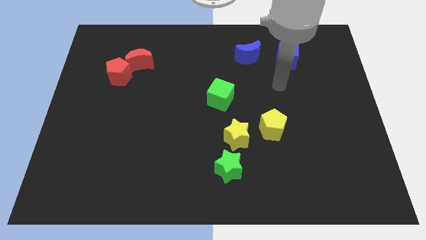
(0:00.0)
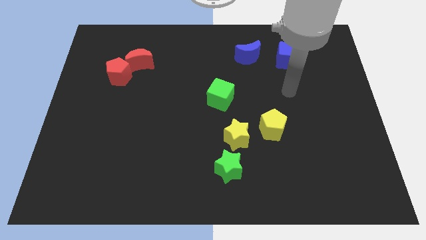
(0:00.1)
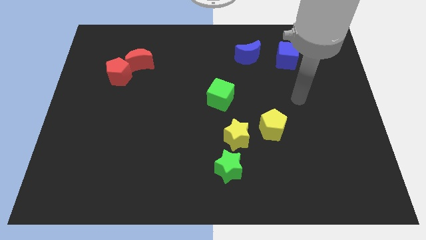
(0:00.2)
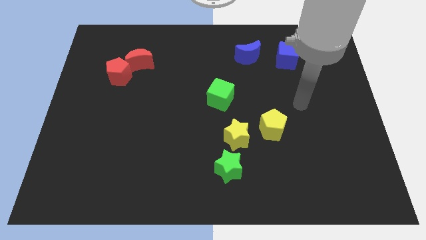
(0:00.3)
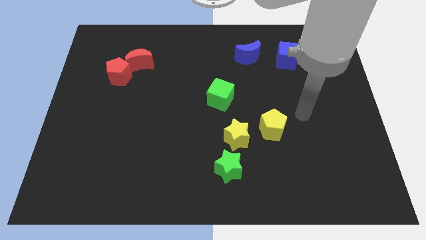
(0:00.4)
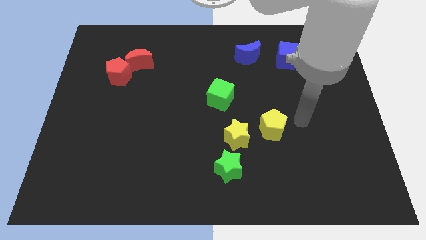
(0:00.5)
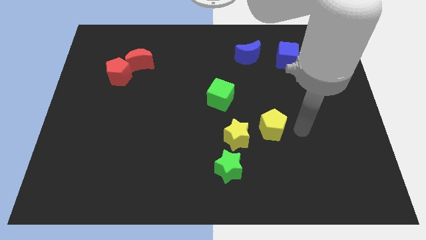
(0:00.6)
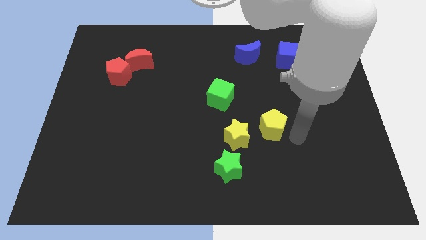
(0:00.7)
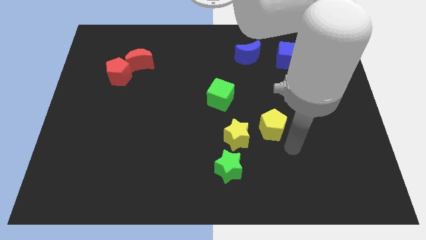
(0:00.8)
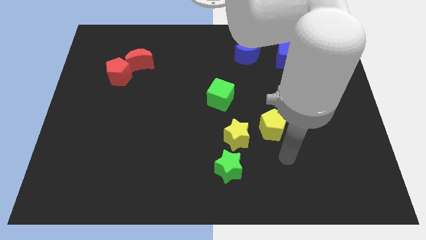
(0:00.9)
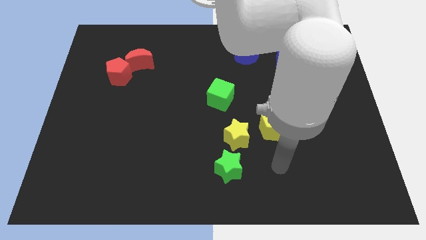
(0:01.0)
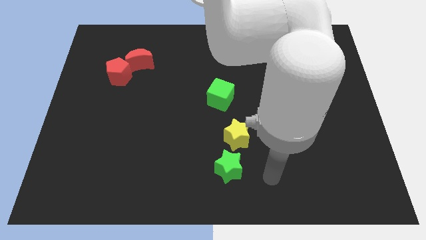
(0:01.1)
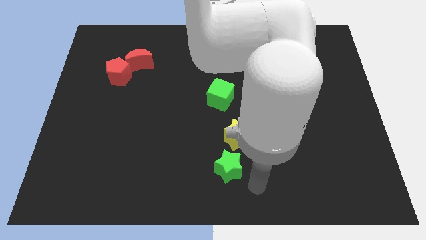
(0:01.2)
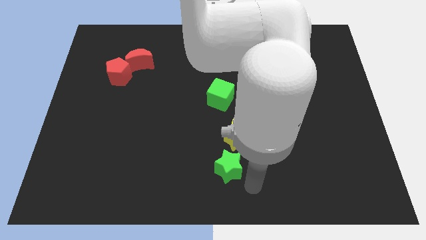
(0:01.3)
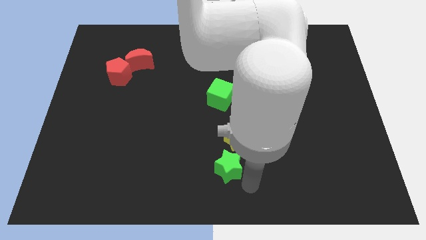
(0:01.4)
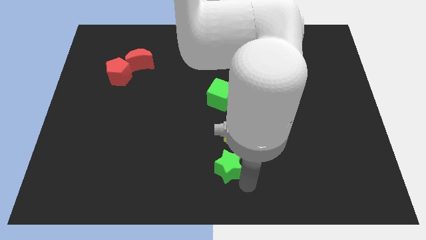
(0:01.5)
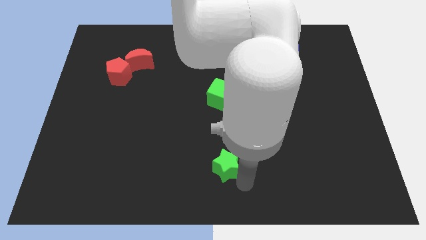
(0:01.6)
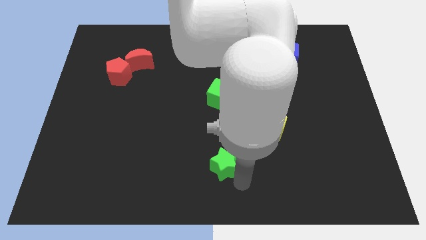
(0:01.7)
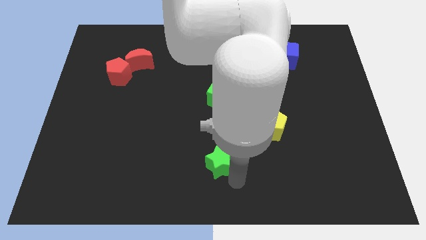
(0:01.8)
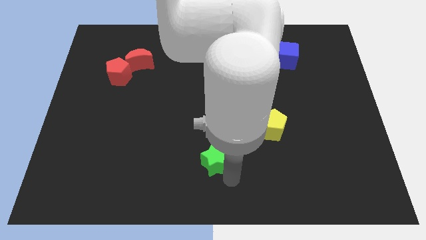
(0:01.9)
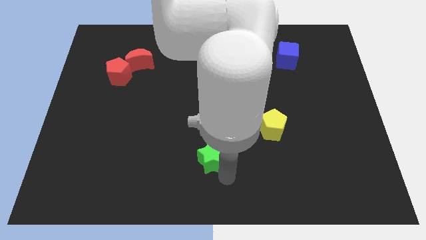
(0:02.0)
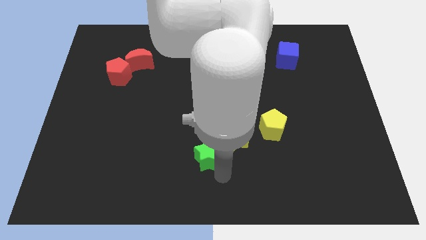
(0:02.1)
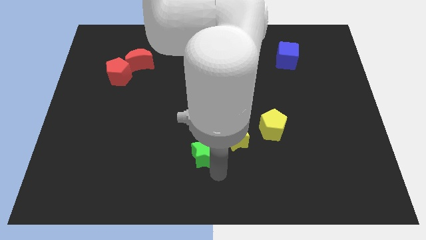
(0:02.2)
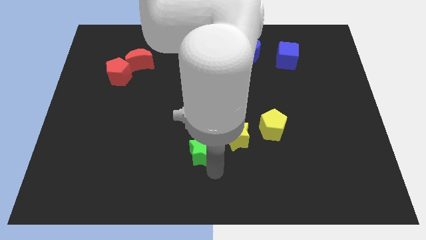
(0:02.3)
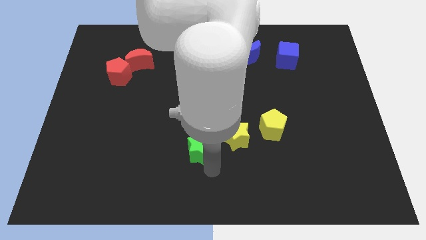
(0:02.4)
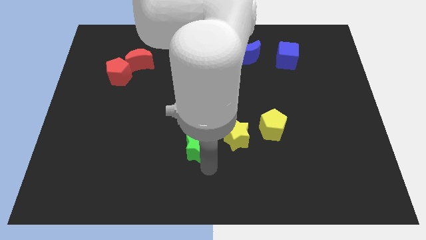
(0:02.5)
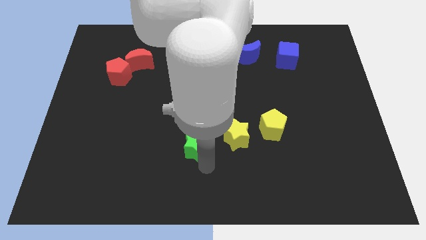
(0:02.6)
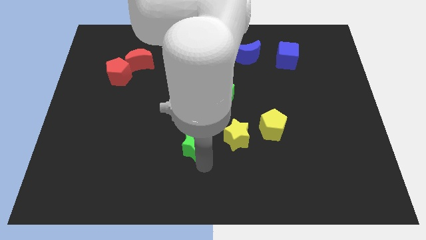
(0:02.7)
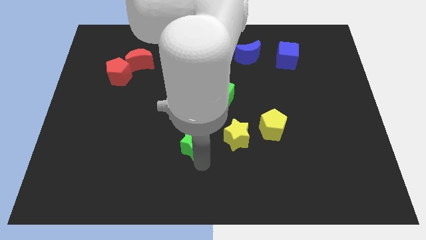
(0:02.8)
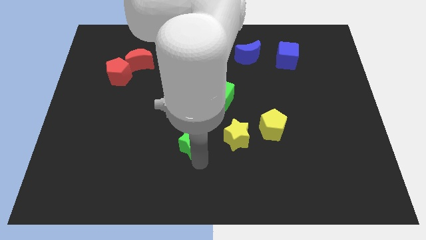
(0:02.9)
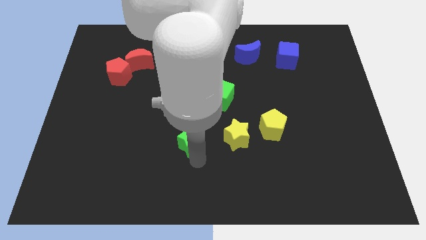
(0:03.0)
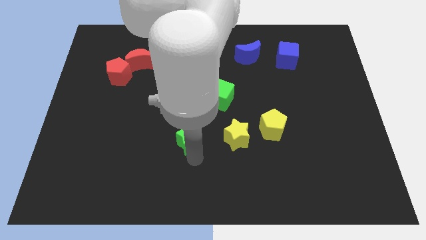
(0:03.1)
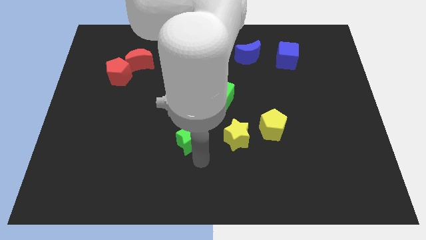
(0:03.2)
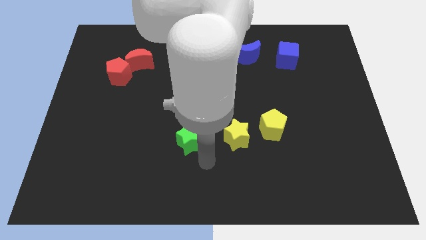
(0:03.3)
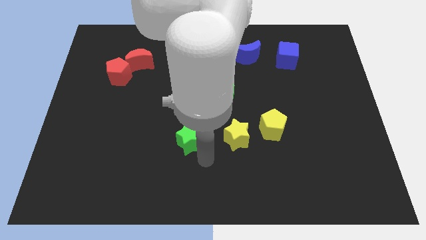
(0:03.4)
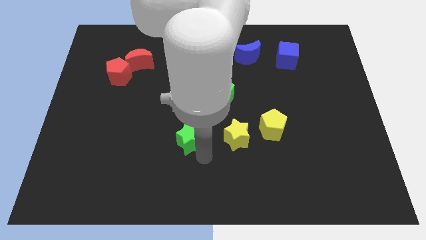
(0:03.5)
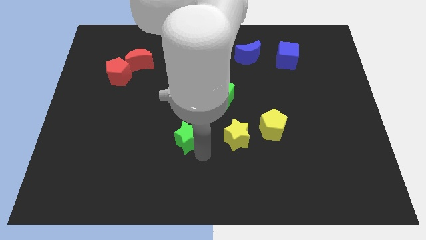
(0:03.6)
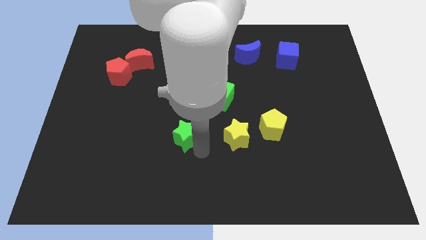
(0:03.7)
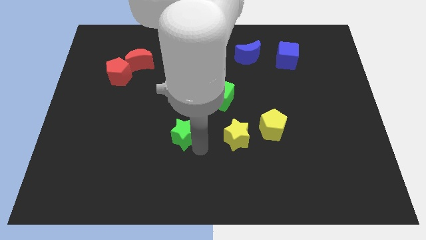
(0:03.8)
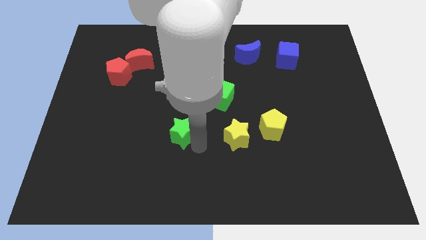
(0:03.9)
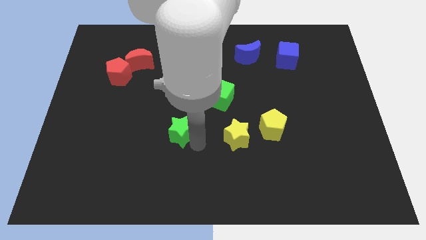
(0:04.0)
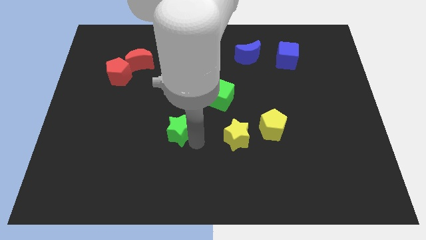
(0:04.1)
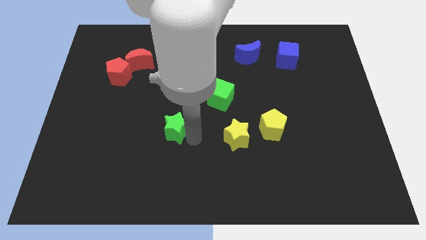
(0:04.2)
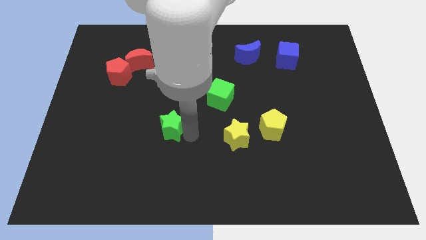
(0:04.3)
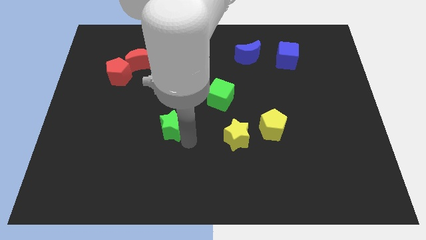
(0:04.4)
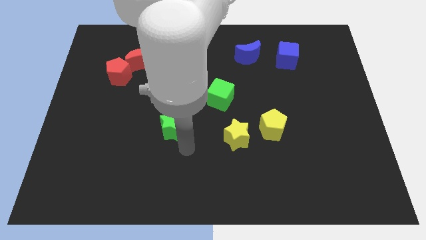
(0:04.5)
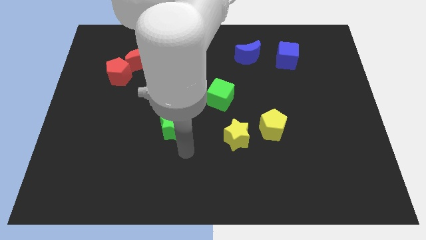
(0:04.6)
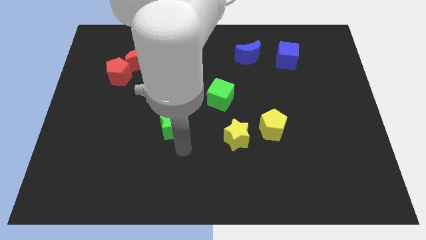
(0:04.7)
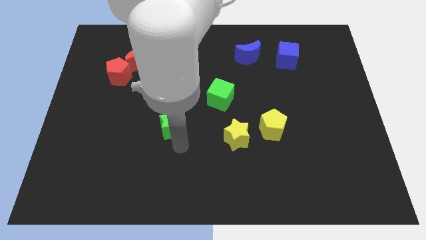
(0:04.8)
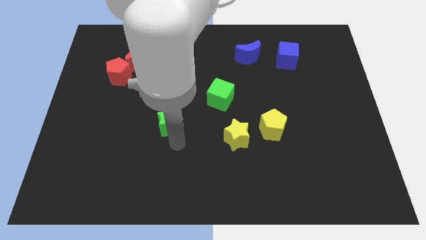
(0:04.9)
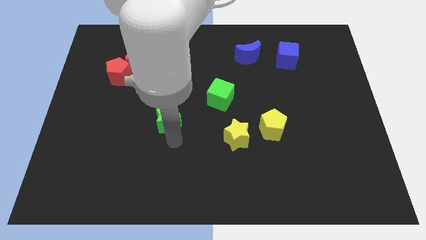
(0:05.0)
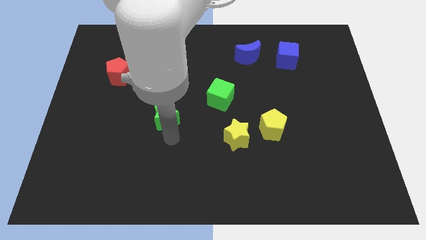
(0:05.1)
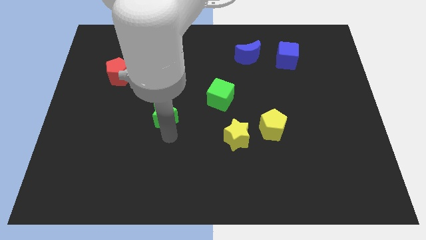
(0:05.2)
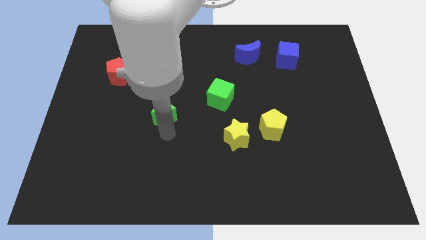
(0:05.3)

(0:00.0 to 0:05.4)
move the green star upwards and left diagonally

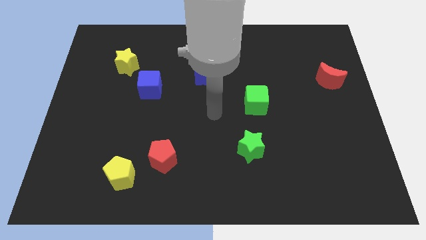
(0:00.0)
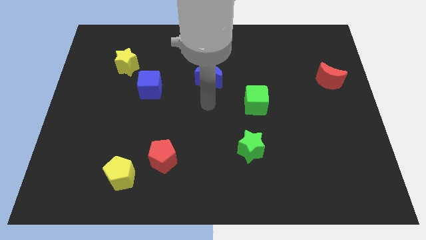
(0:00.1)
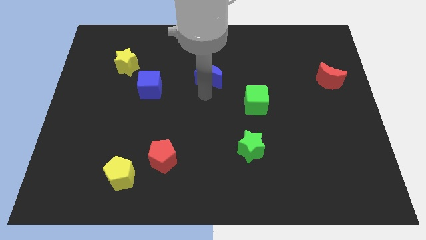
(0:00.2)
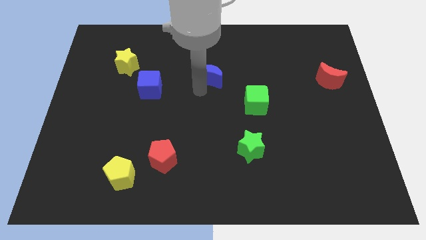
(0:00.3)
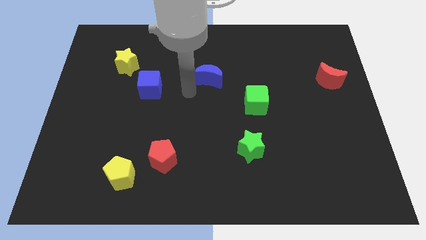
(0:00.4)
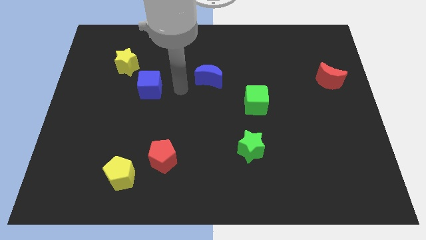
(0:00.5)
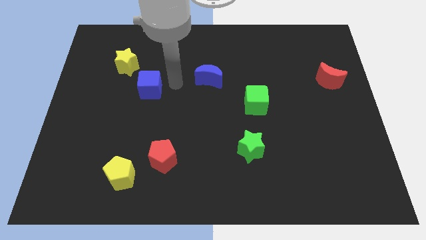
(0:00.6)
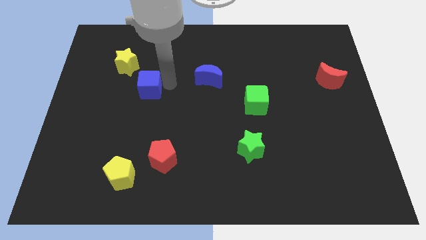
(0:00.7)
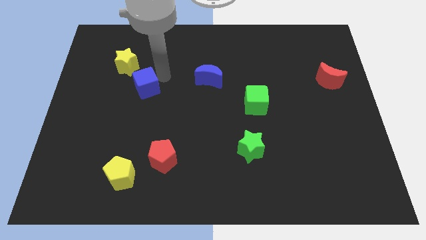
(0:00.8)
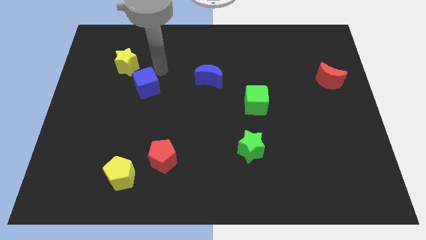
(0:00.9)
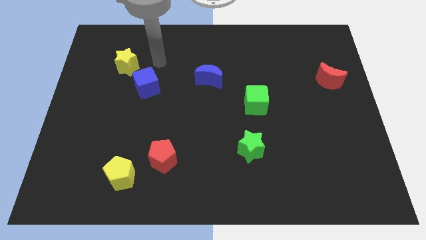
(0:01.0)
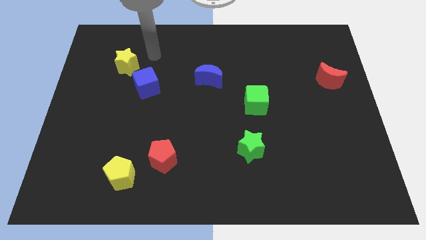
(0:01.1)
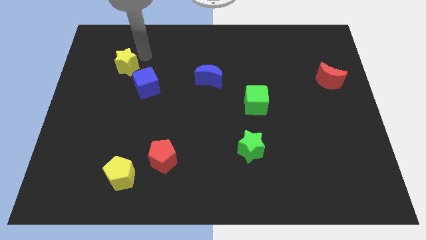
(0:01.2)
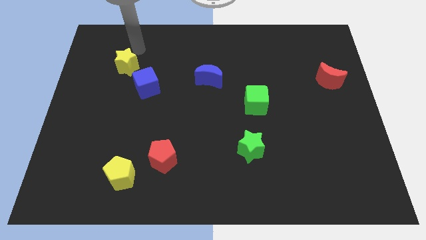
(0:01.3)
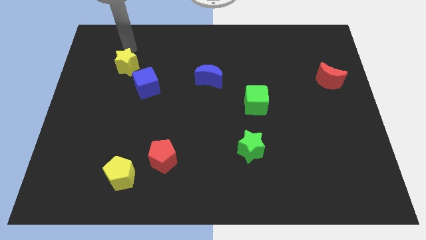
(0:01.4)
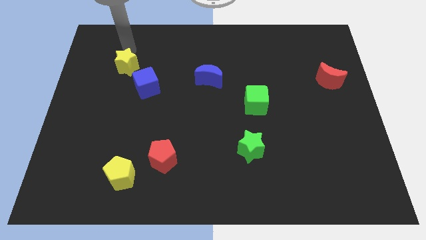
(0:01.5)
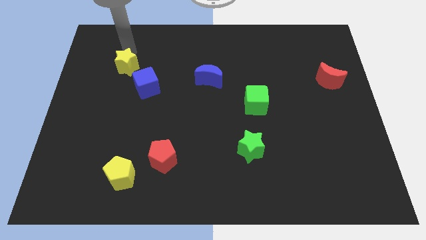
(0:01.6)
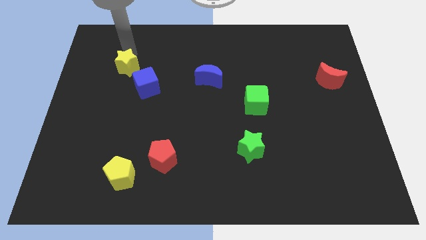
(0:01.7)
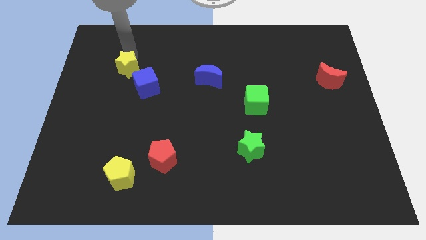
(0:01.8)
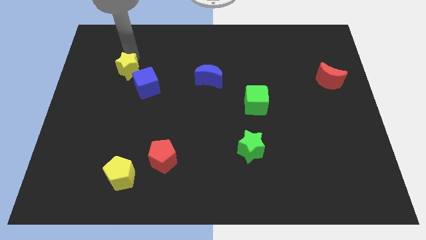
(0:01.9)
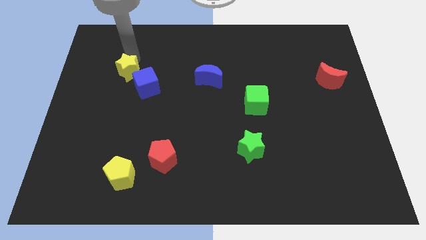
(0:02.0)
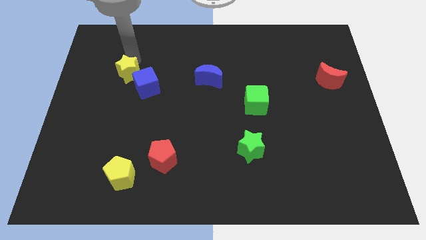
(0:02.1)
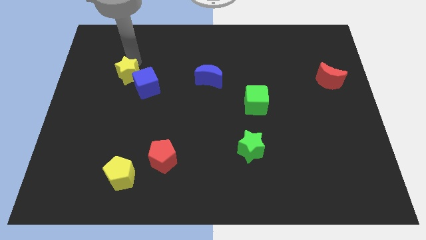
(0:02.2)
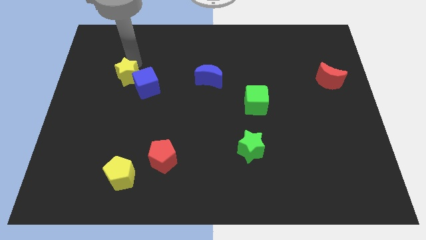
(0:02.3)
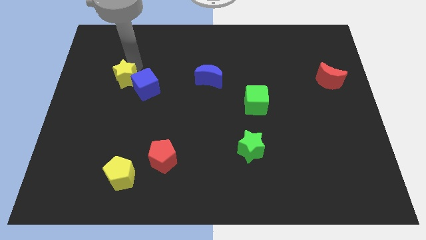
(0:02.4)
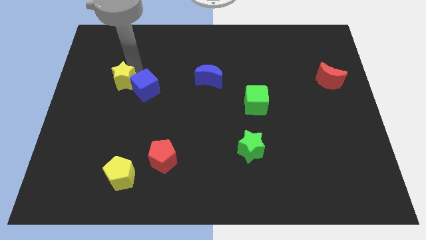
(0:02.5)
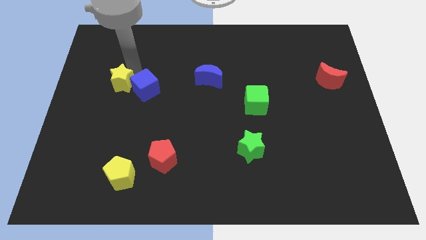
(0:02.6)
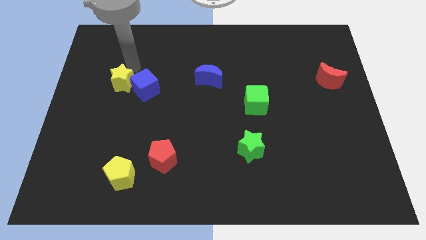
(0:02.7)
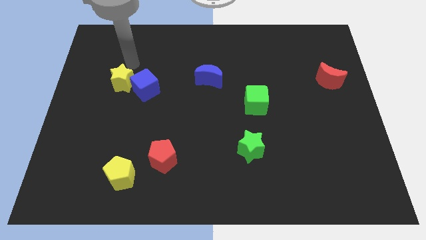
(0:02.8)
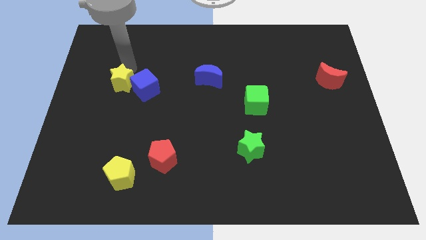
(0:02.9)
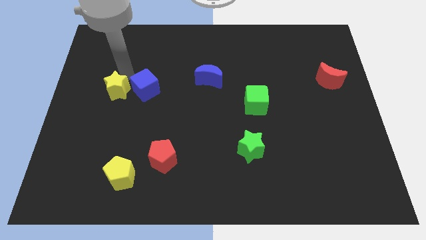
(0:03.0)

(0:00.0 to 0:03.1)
slide the yellow star somewhat down
